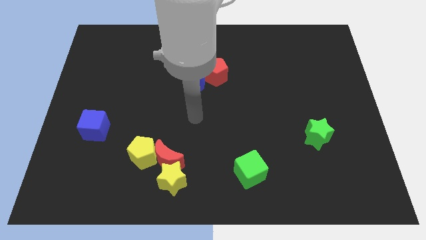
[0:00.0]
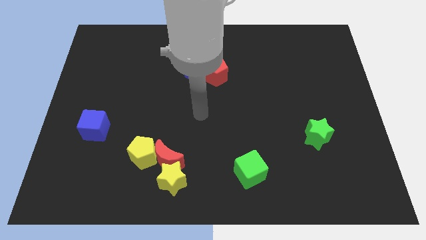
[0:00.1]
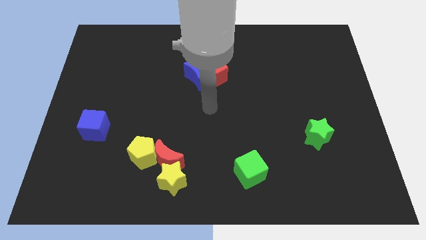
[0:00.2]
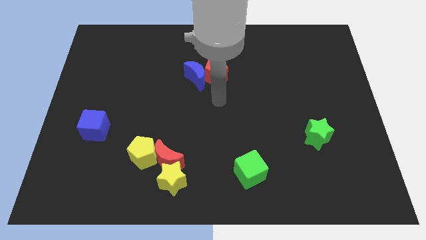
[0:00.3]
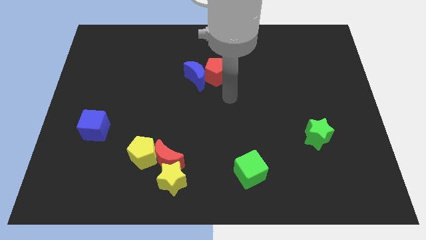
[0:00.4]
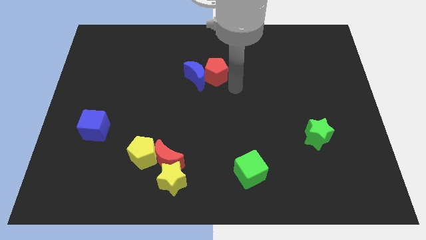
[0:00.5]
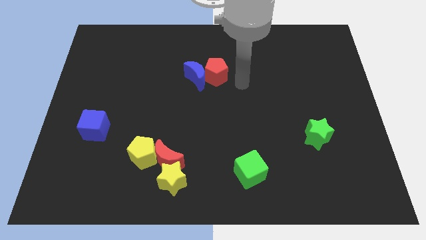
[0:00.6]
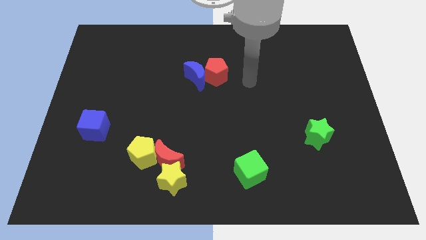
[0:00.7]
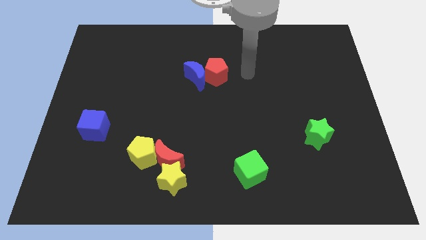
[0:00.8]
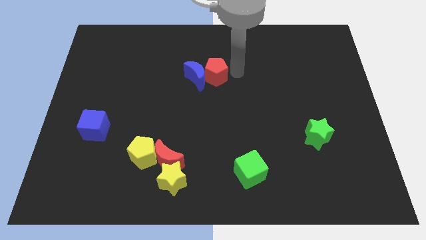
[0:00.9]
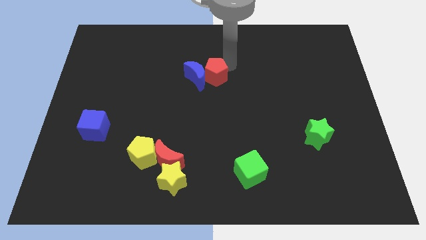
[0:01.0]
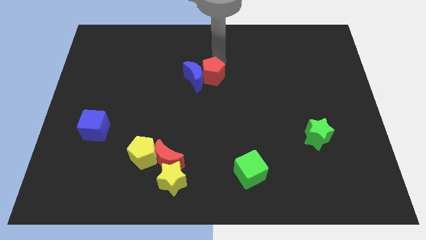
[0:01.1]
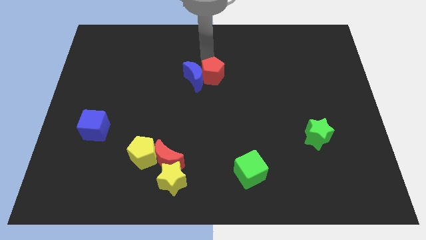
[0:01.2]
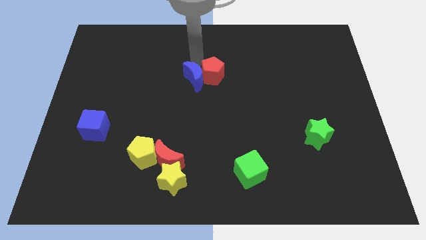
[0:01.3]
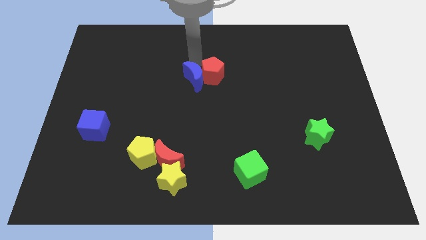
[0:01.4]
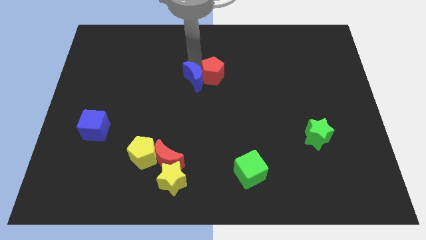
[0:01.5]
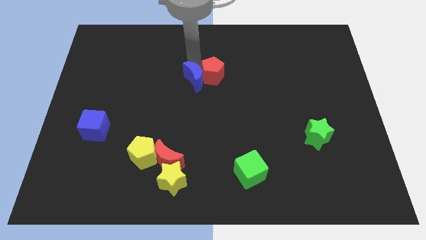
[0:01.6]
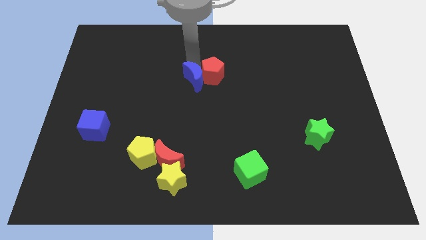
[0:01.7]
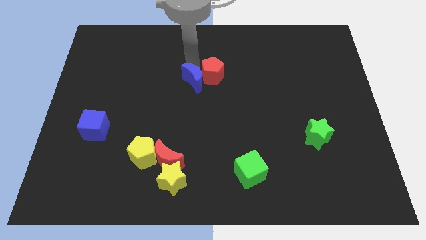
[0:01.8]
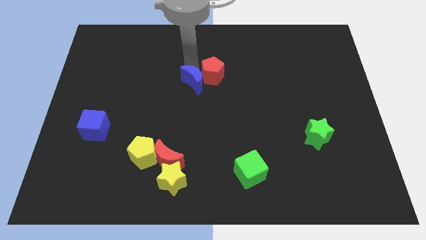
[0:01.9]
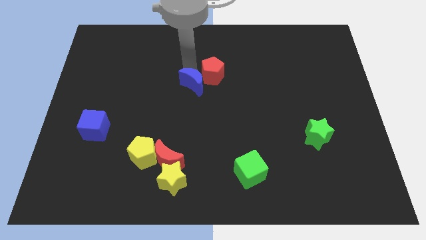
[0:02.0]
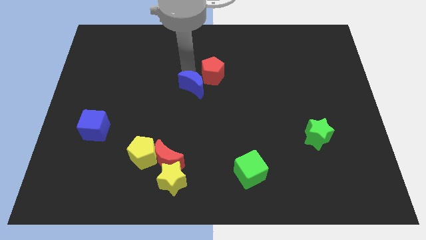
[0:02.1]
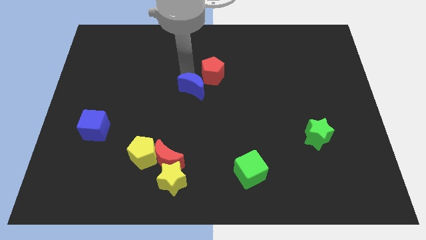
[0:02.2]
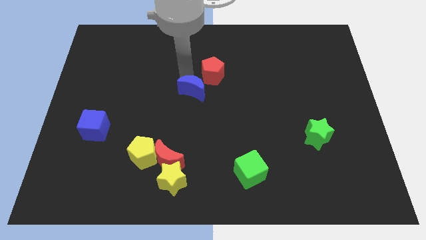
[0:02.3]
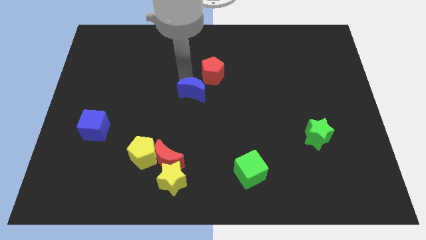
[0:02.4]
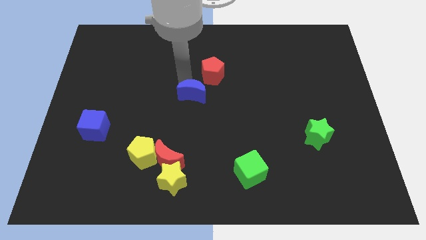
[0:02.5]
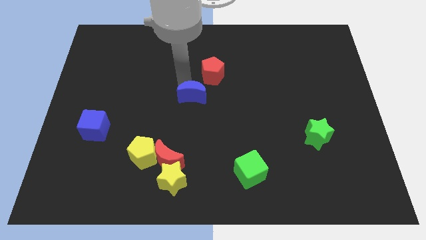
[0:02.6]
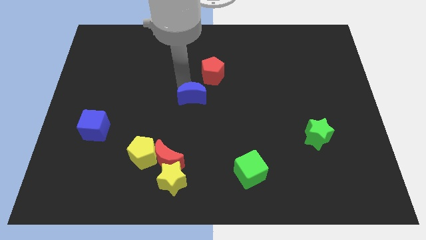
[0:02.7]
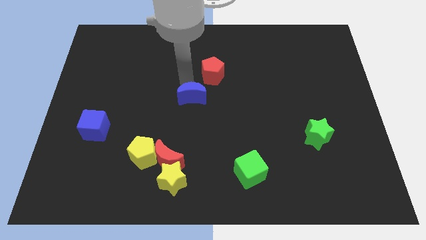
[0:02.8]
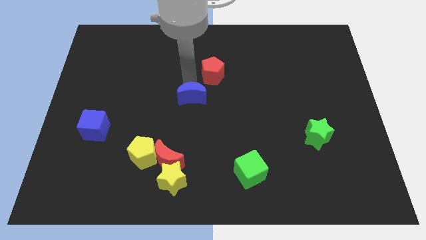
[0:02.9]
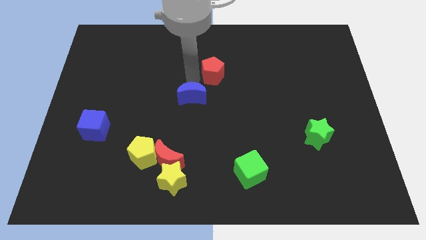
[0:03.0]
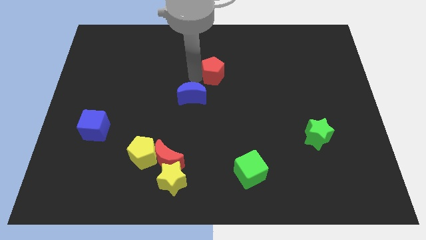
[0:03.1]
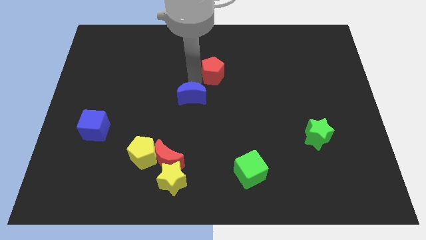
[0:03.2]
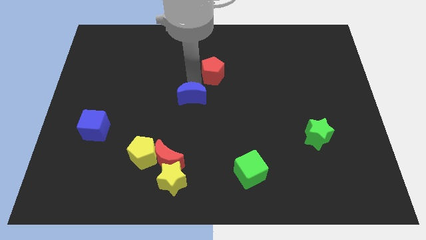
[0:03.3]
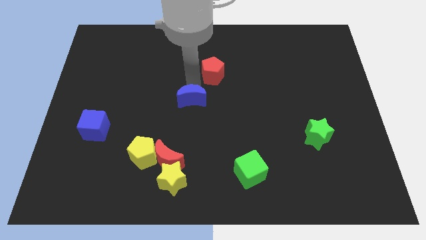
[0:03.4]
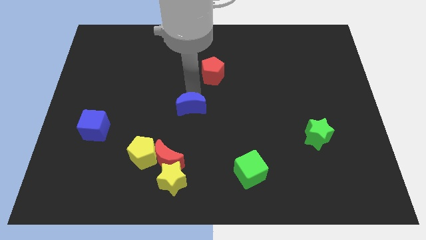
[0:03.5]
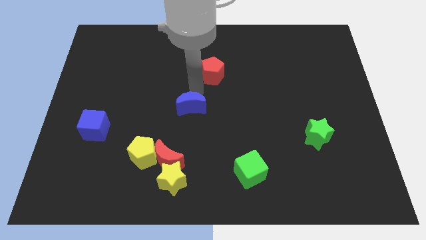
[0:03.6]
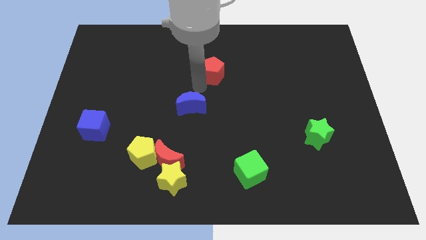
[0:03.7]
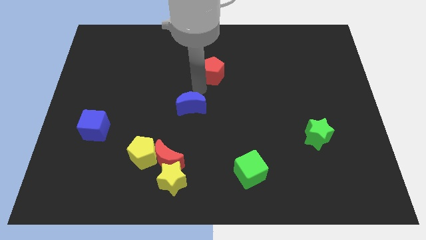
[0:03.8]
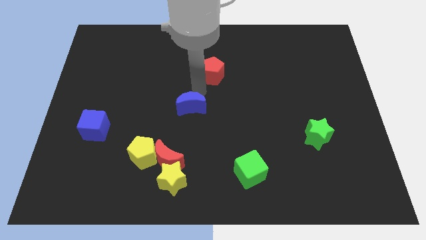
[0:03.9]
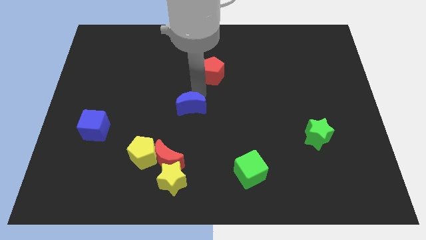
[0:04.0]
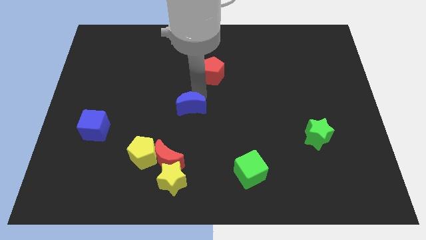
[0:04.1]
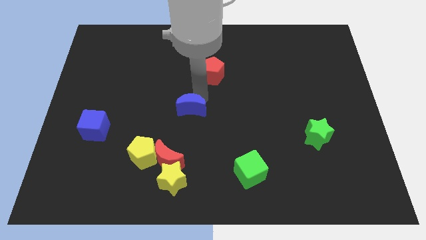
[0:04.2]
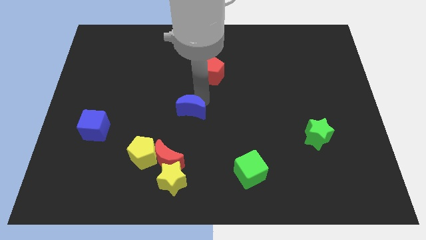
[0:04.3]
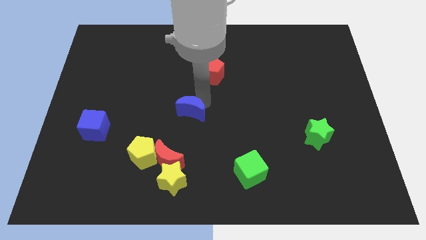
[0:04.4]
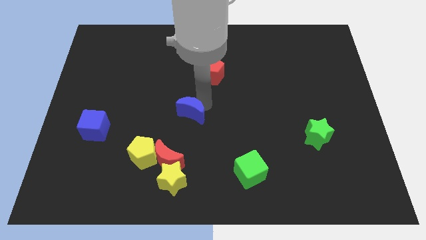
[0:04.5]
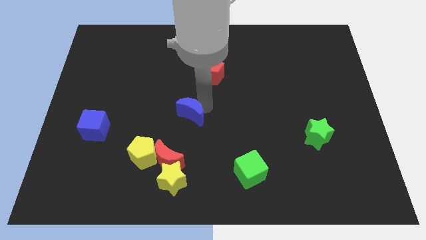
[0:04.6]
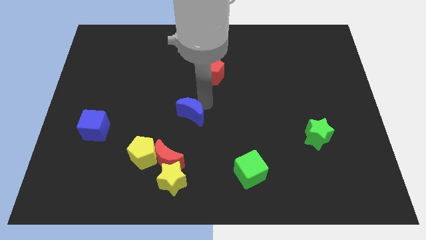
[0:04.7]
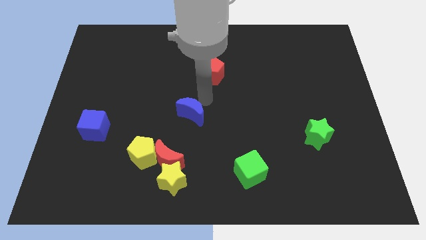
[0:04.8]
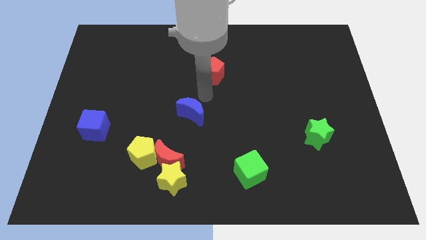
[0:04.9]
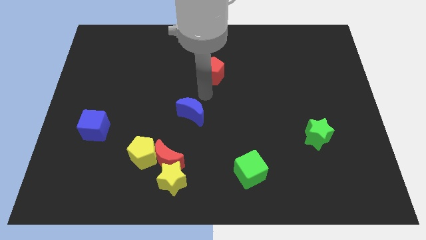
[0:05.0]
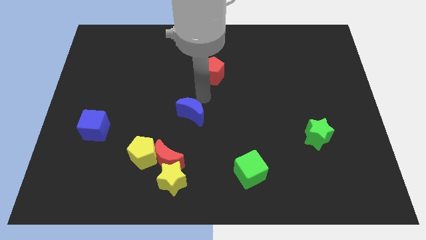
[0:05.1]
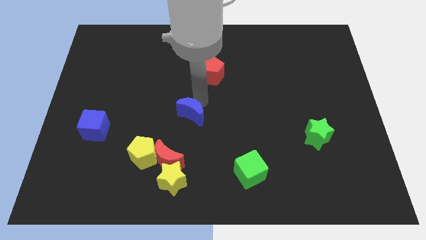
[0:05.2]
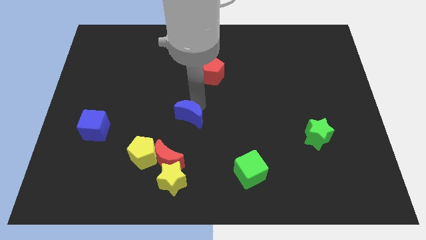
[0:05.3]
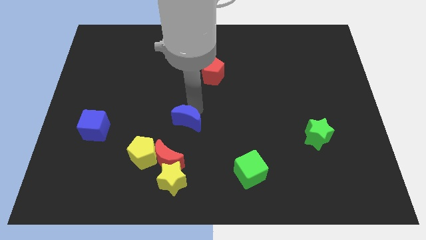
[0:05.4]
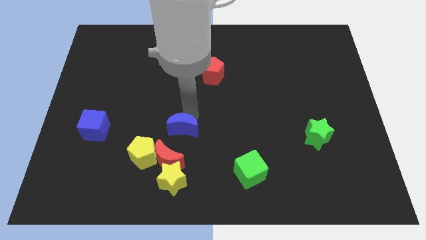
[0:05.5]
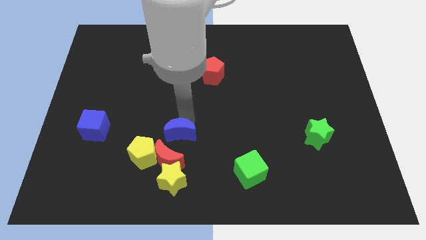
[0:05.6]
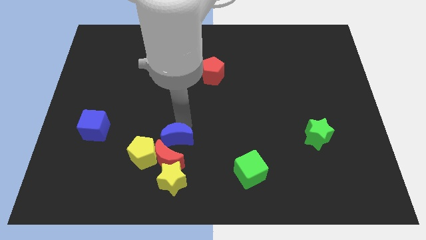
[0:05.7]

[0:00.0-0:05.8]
push the blue moon close to the red moon

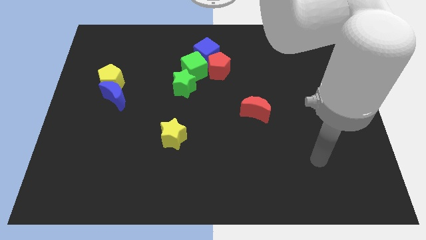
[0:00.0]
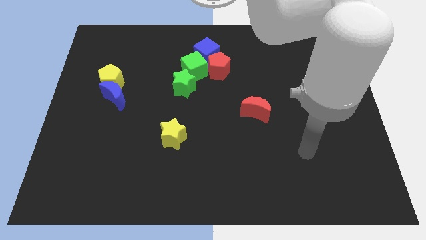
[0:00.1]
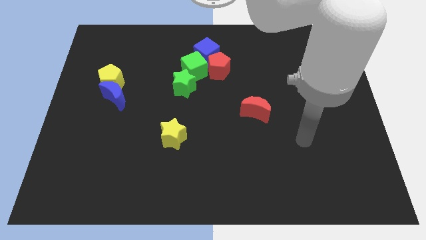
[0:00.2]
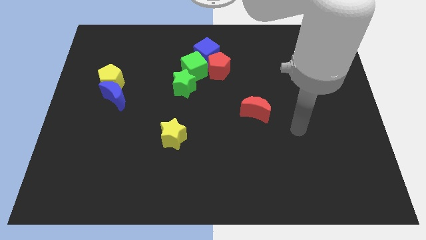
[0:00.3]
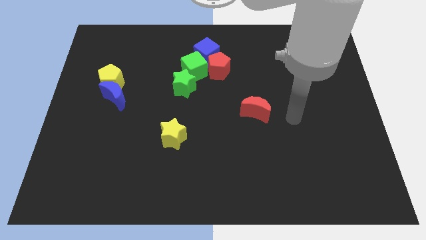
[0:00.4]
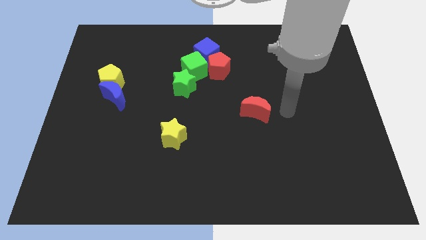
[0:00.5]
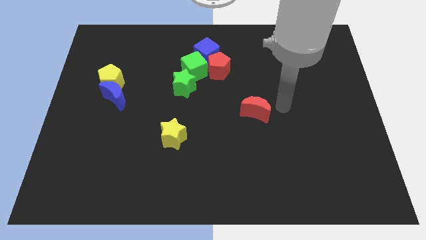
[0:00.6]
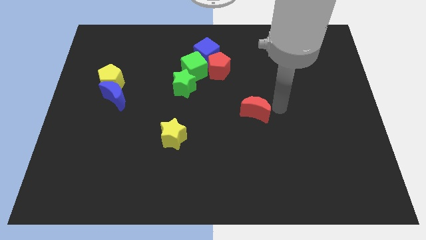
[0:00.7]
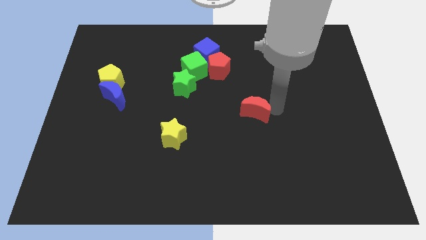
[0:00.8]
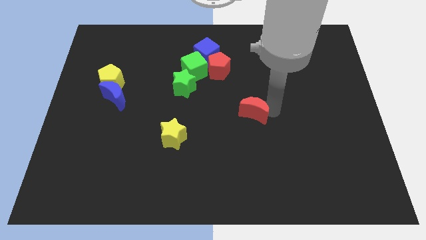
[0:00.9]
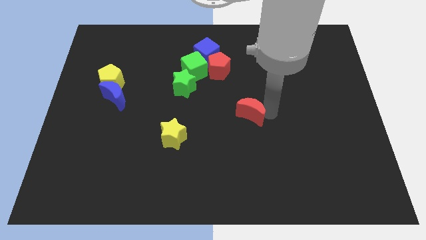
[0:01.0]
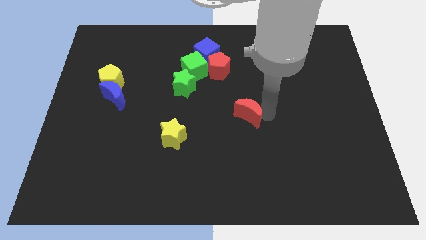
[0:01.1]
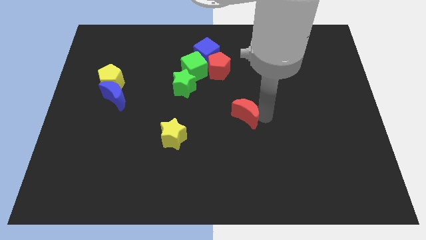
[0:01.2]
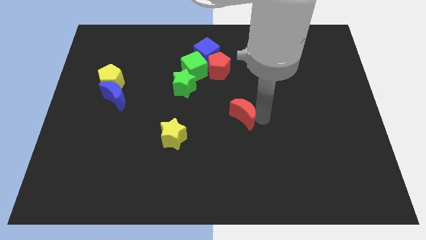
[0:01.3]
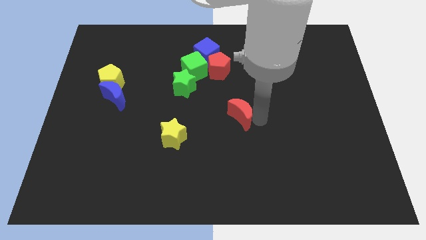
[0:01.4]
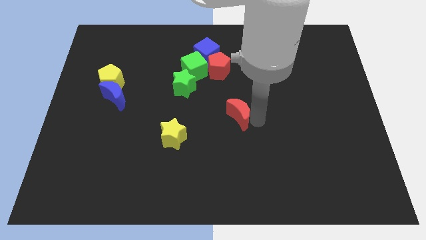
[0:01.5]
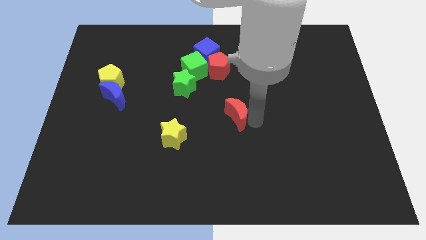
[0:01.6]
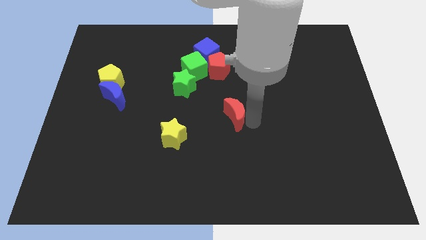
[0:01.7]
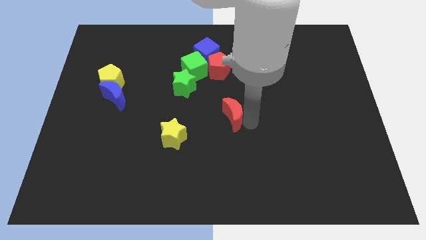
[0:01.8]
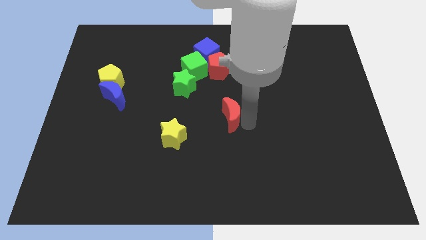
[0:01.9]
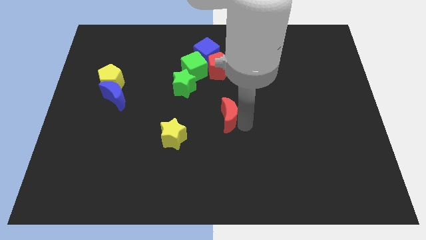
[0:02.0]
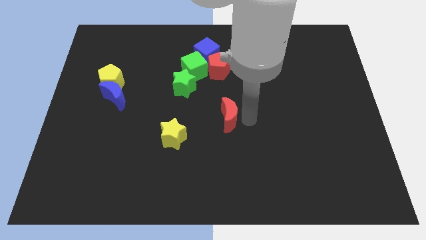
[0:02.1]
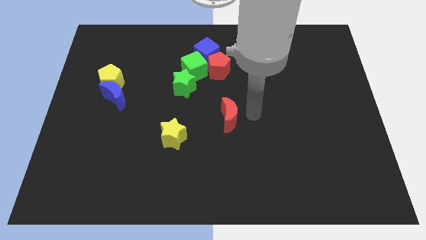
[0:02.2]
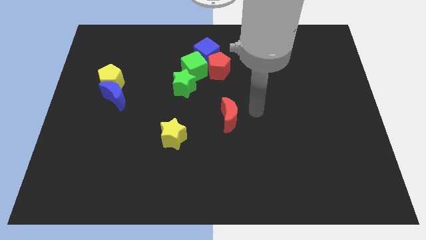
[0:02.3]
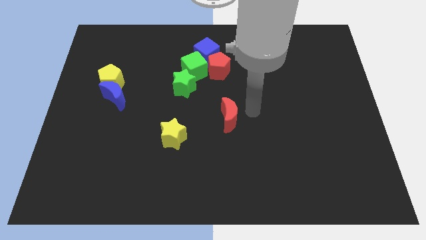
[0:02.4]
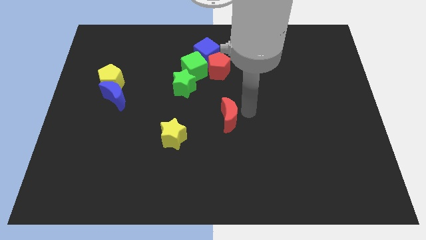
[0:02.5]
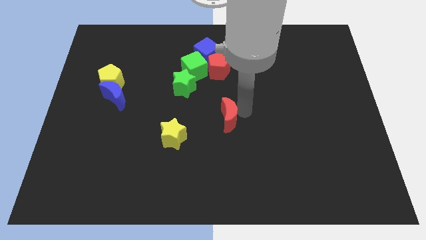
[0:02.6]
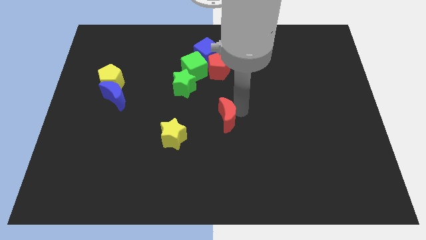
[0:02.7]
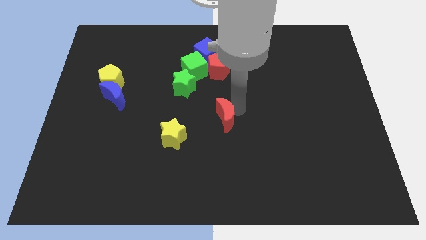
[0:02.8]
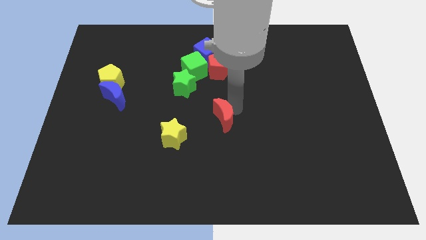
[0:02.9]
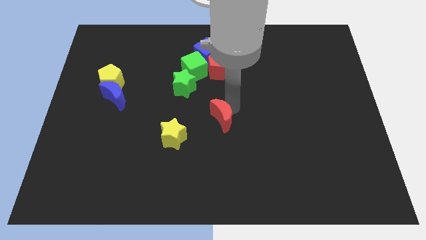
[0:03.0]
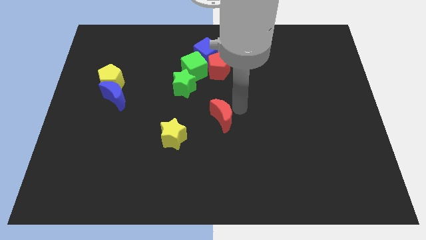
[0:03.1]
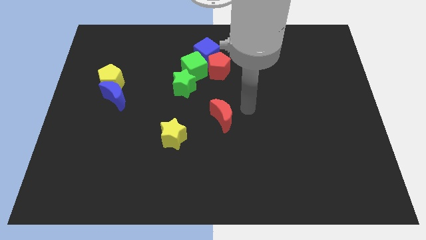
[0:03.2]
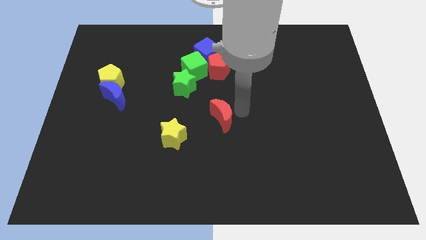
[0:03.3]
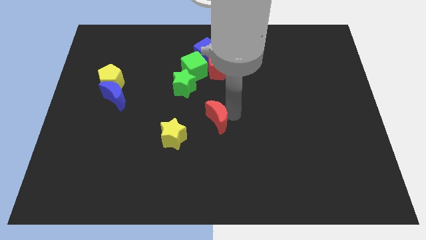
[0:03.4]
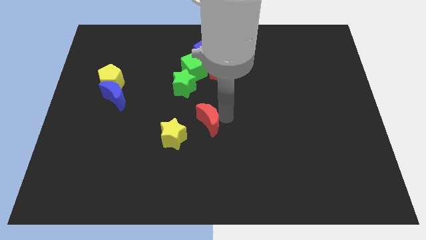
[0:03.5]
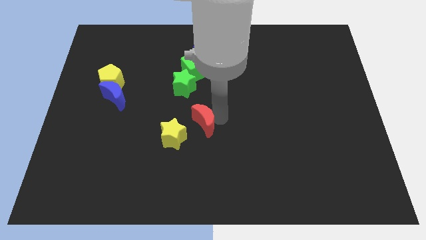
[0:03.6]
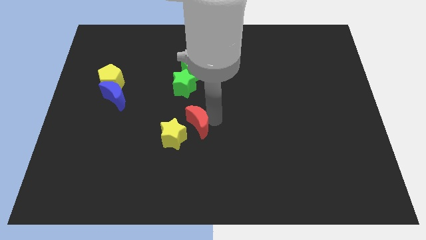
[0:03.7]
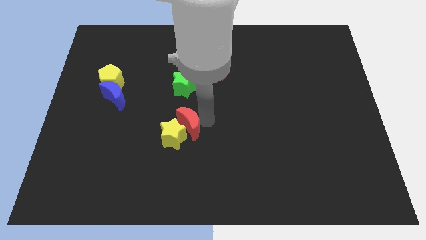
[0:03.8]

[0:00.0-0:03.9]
push the red moon towards the yellow star
